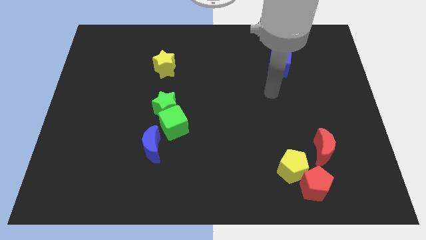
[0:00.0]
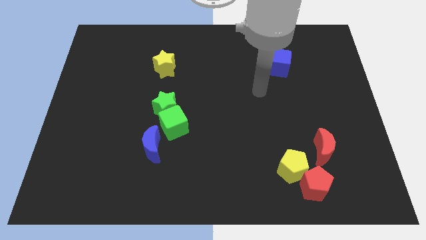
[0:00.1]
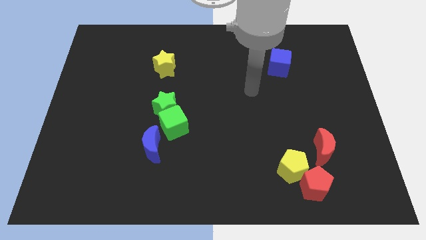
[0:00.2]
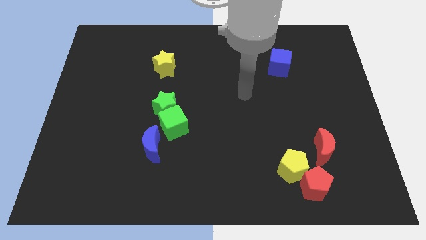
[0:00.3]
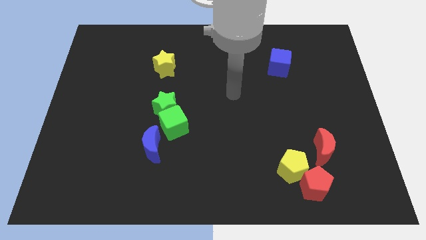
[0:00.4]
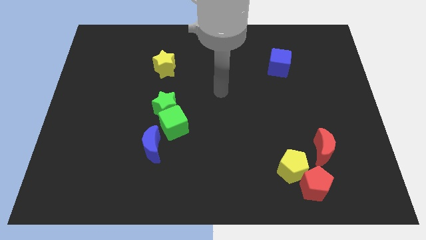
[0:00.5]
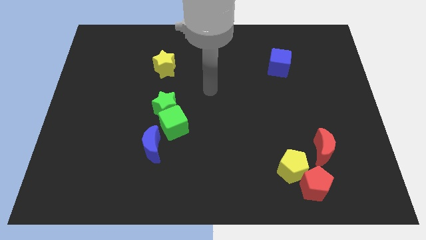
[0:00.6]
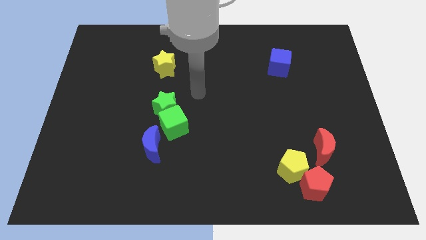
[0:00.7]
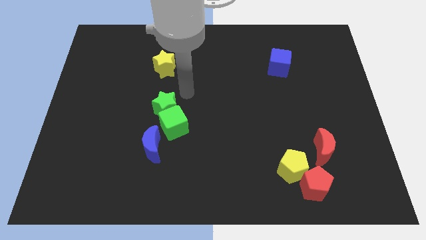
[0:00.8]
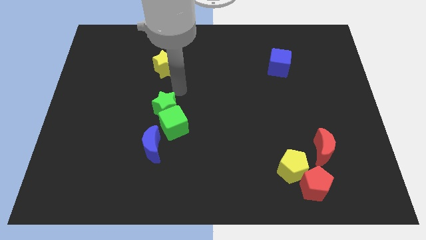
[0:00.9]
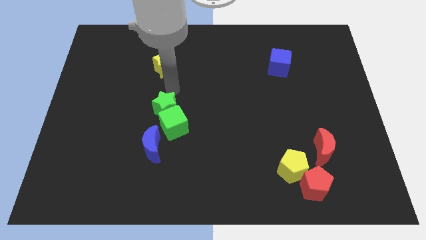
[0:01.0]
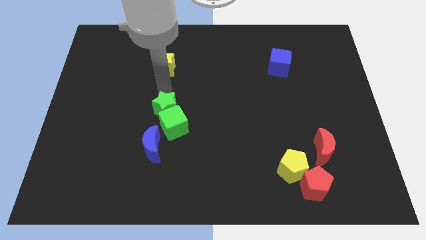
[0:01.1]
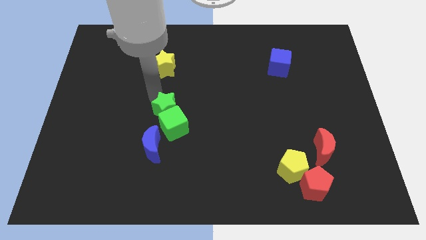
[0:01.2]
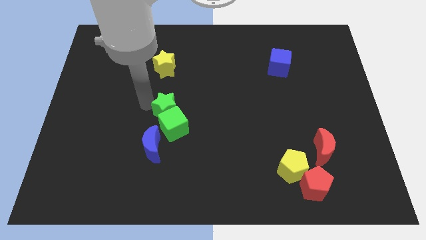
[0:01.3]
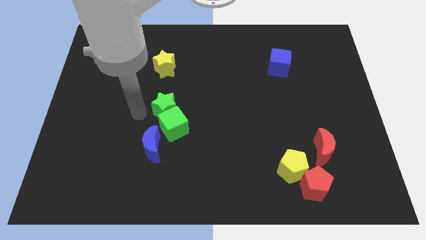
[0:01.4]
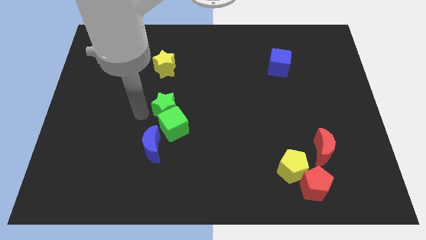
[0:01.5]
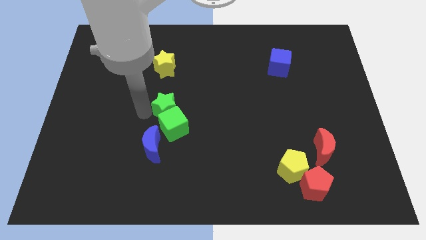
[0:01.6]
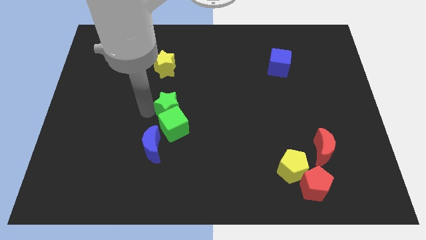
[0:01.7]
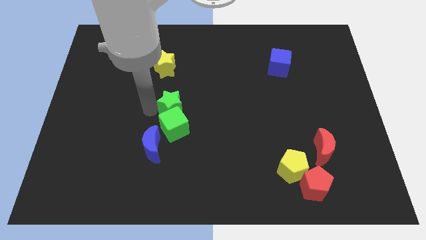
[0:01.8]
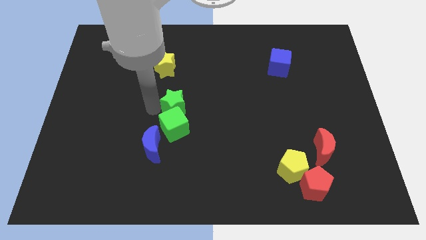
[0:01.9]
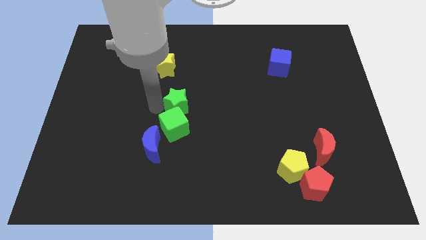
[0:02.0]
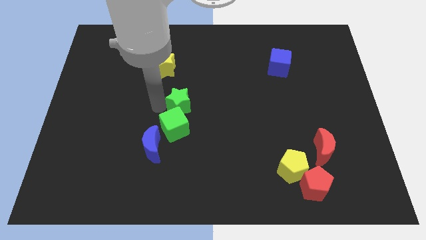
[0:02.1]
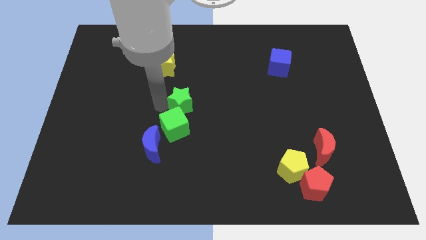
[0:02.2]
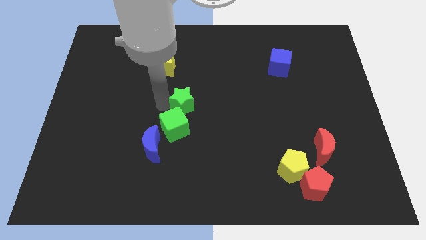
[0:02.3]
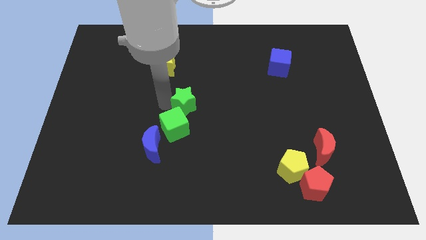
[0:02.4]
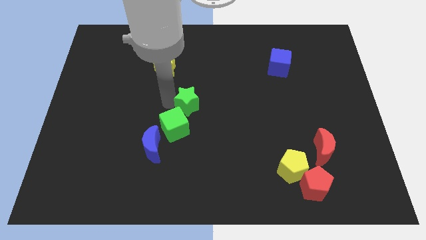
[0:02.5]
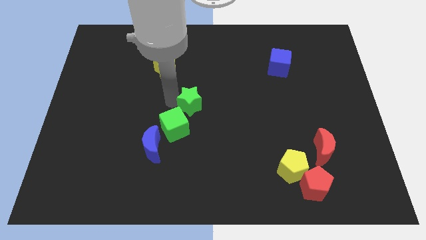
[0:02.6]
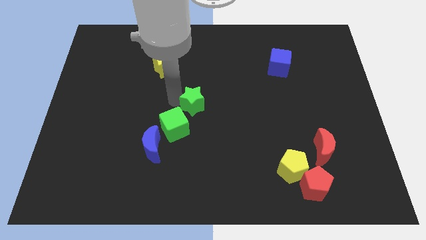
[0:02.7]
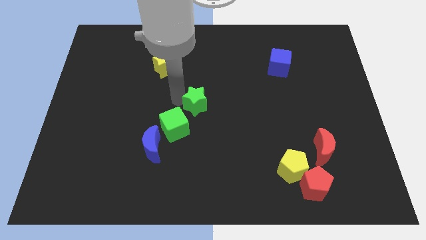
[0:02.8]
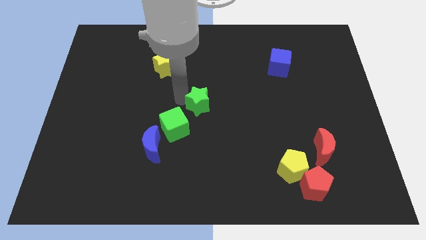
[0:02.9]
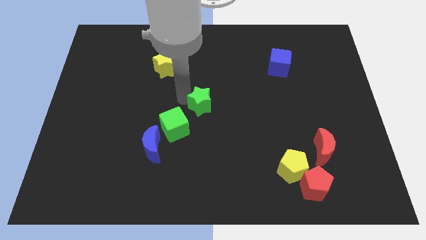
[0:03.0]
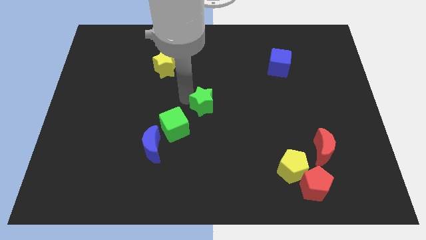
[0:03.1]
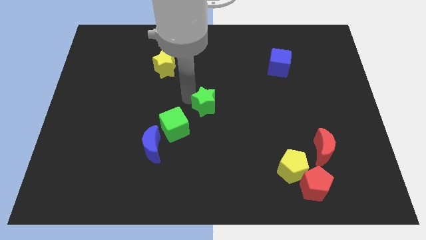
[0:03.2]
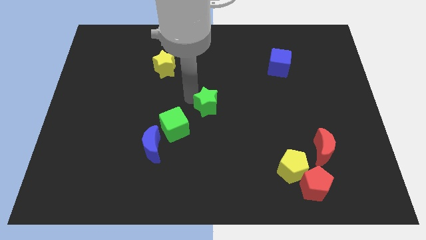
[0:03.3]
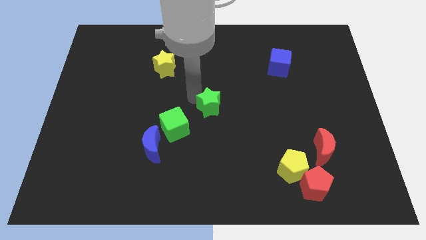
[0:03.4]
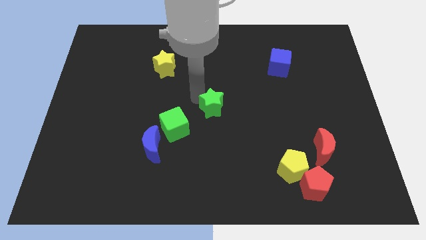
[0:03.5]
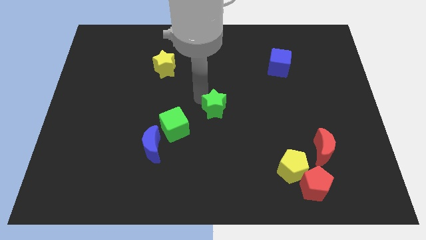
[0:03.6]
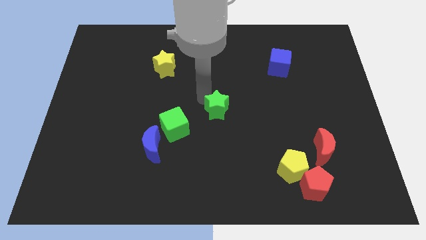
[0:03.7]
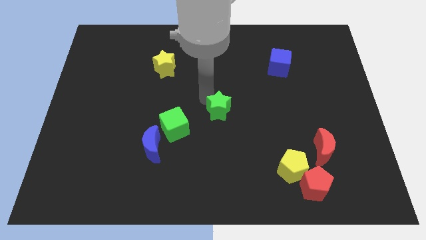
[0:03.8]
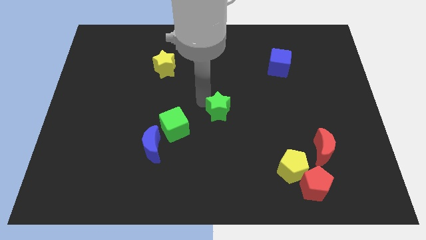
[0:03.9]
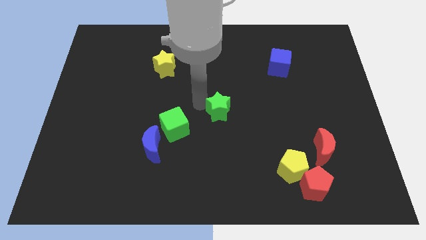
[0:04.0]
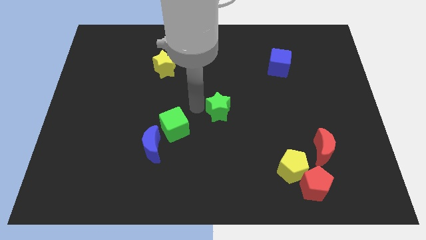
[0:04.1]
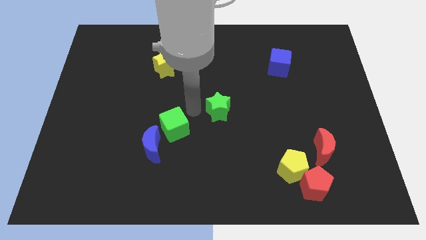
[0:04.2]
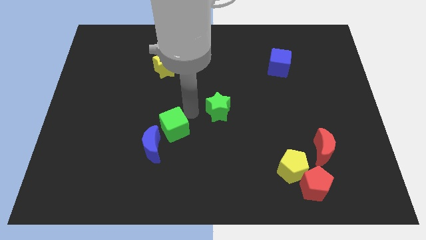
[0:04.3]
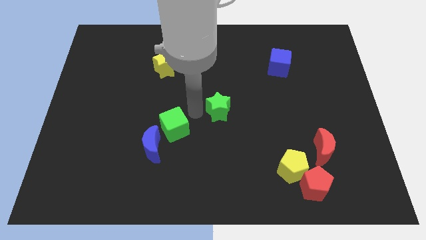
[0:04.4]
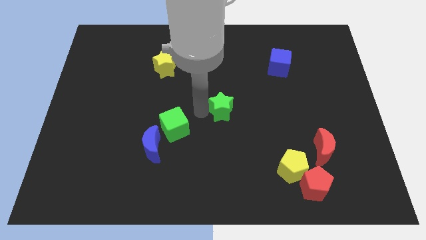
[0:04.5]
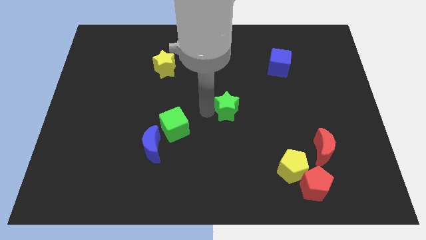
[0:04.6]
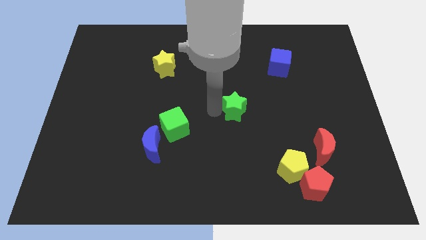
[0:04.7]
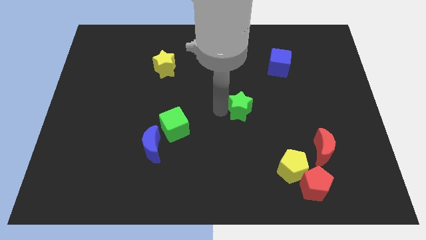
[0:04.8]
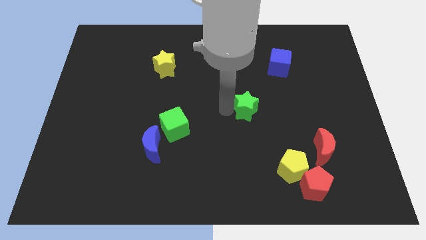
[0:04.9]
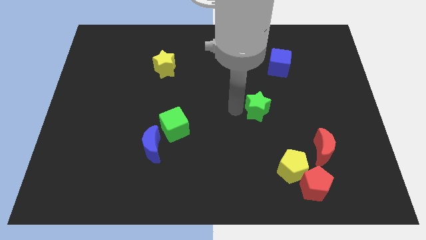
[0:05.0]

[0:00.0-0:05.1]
move the green star to the right

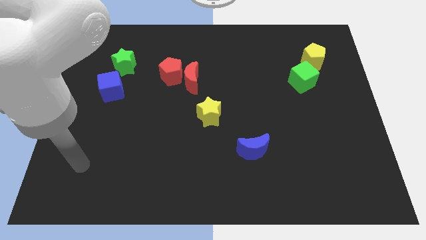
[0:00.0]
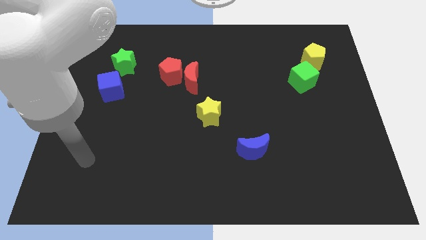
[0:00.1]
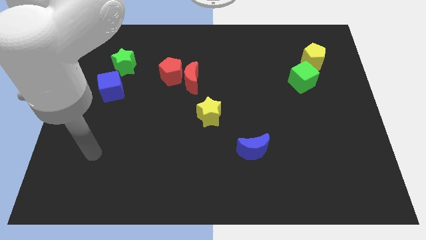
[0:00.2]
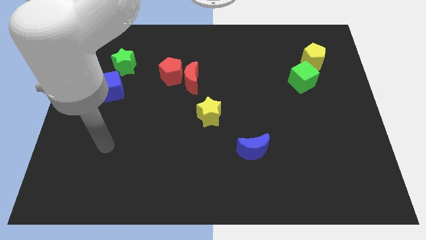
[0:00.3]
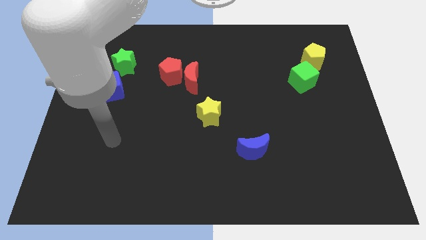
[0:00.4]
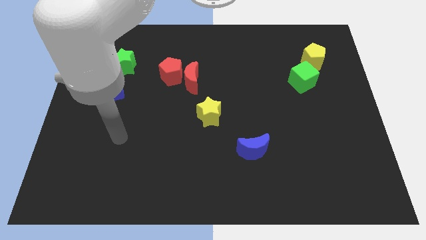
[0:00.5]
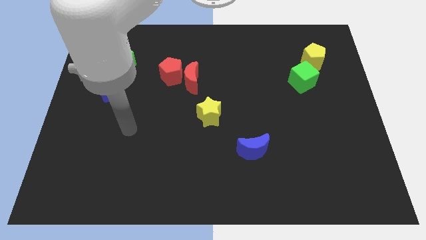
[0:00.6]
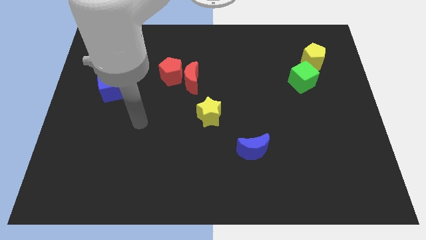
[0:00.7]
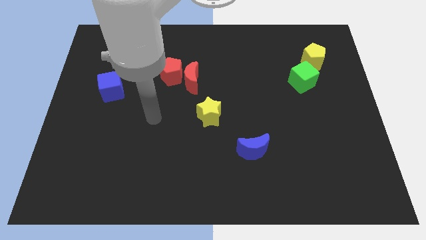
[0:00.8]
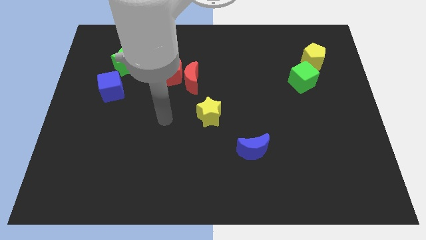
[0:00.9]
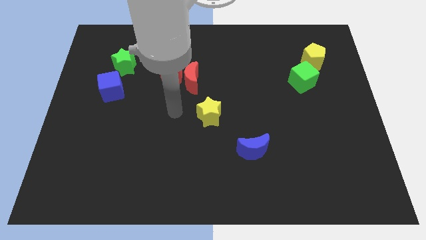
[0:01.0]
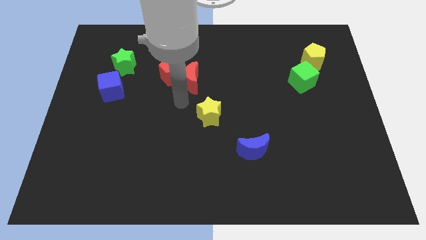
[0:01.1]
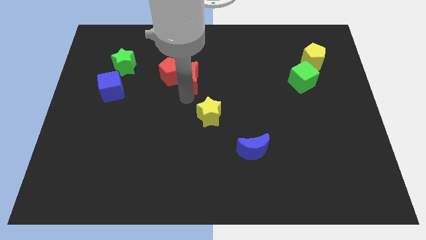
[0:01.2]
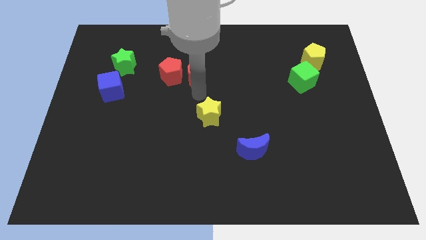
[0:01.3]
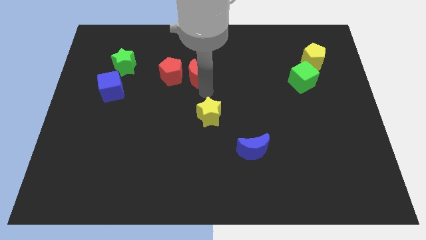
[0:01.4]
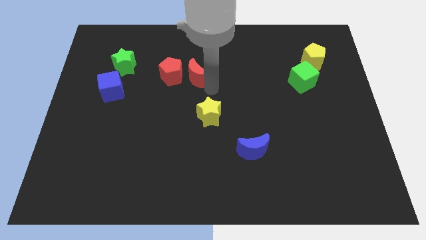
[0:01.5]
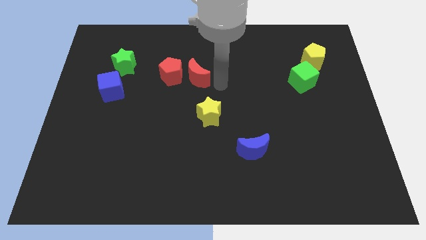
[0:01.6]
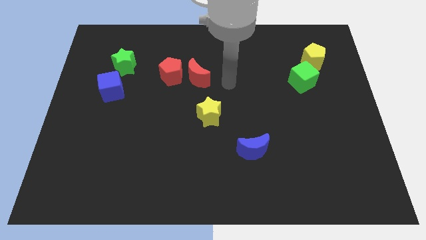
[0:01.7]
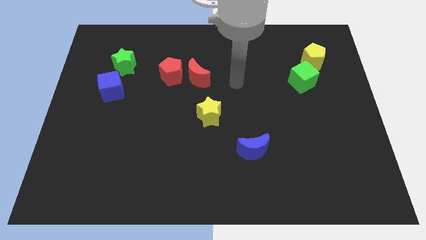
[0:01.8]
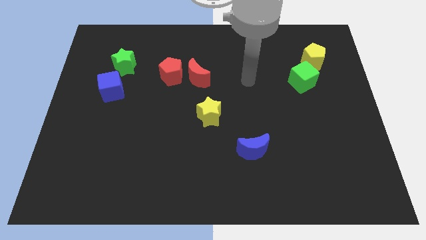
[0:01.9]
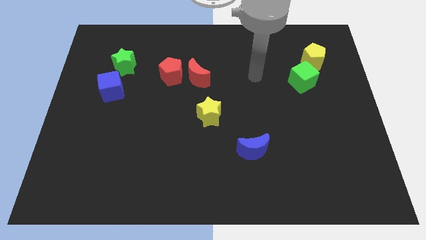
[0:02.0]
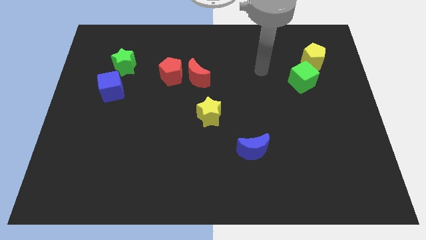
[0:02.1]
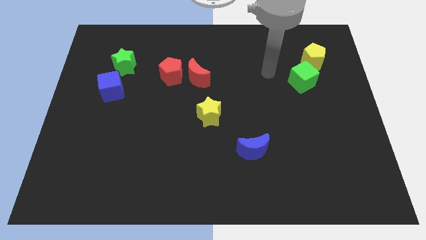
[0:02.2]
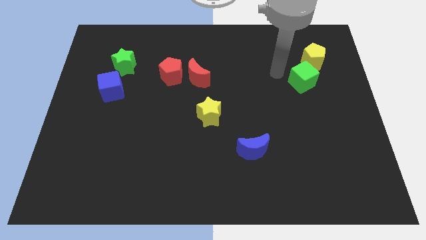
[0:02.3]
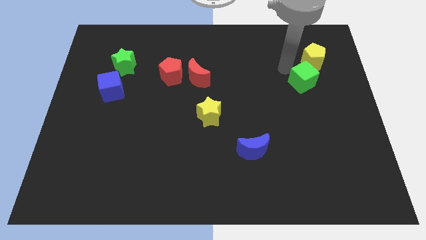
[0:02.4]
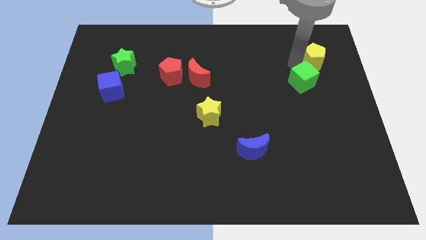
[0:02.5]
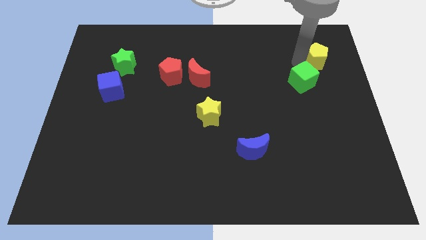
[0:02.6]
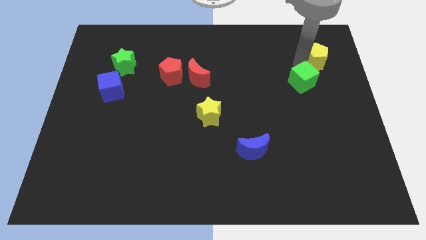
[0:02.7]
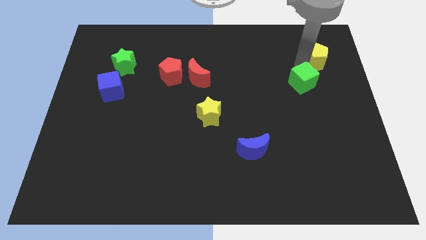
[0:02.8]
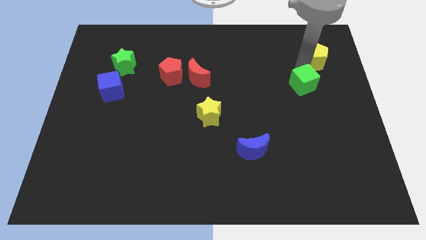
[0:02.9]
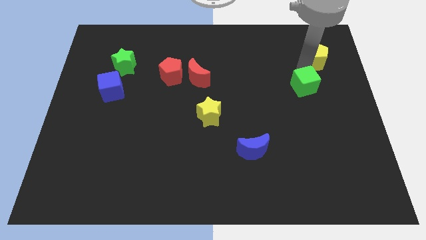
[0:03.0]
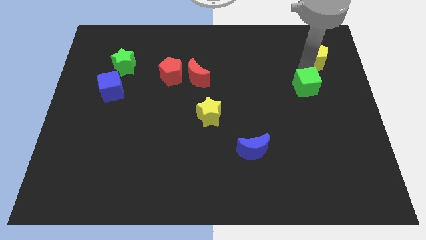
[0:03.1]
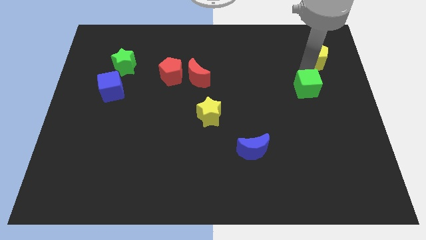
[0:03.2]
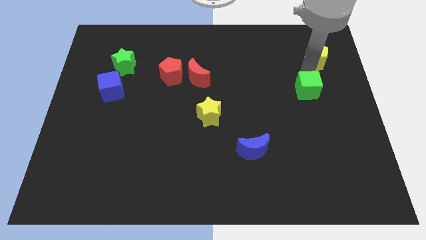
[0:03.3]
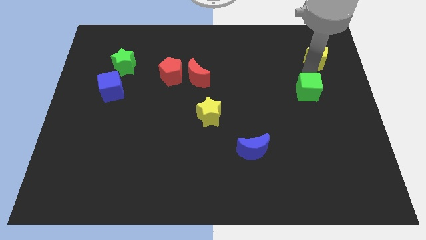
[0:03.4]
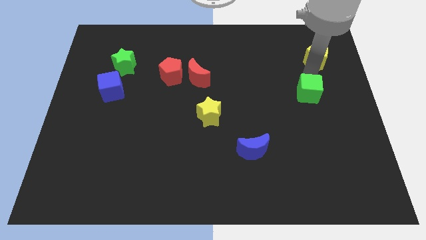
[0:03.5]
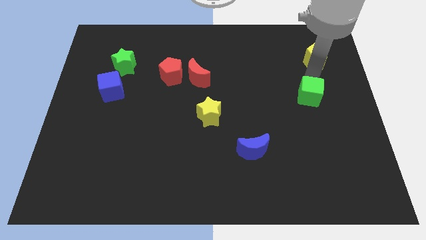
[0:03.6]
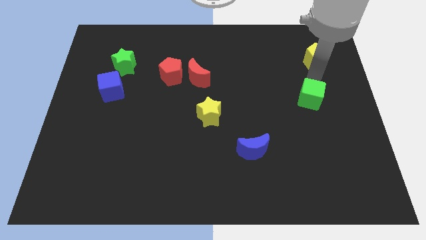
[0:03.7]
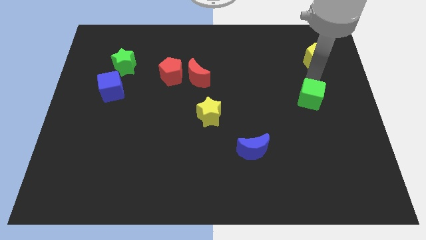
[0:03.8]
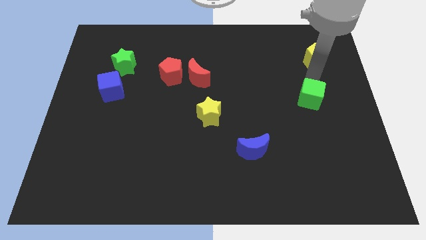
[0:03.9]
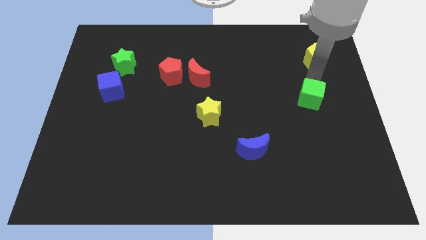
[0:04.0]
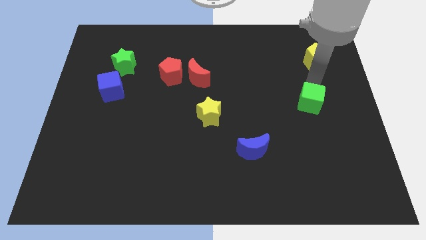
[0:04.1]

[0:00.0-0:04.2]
push the green cube a bit down
